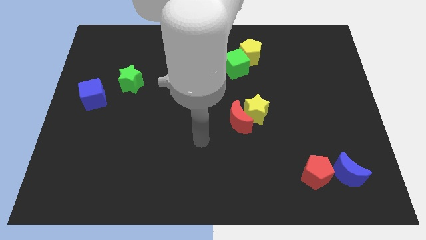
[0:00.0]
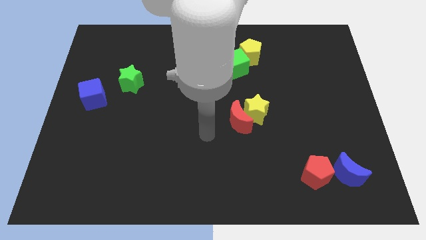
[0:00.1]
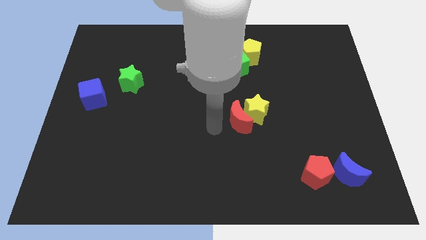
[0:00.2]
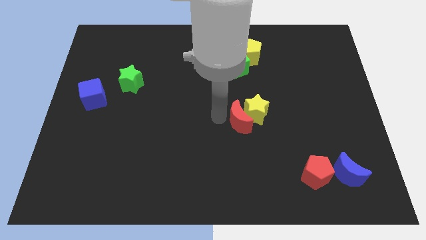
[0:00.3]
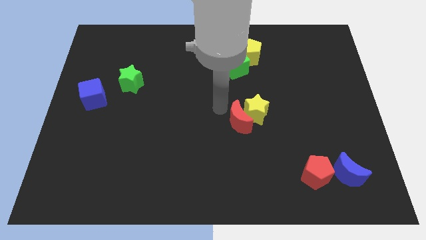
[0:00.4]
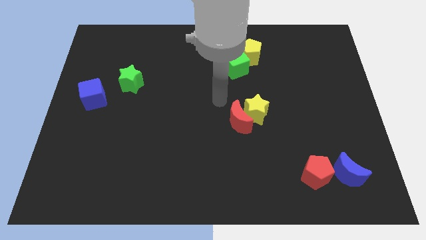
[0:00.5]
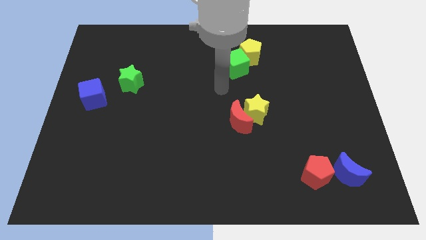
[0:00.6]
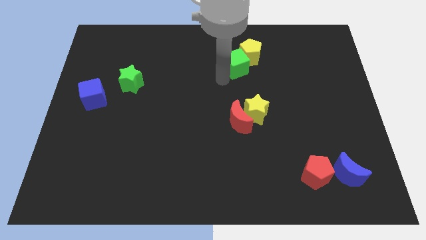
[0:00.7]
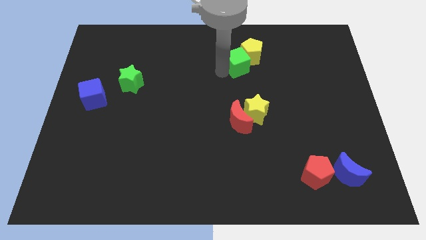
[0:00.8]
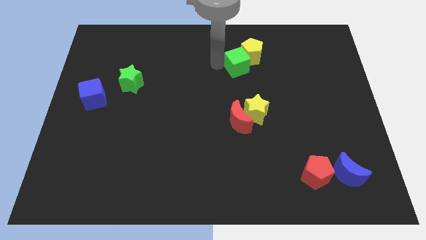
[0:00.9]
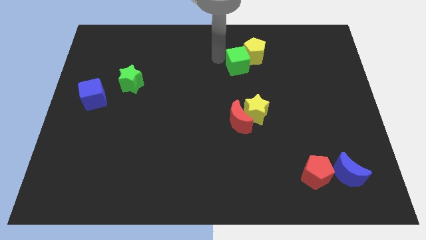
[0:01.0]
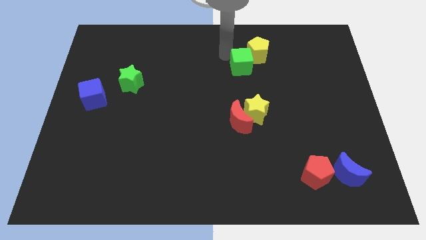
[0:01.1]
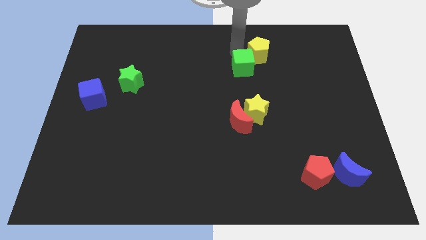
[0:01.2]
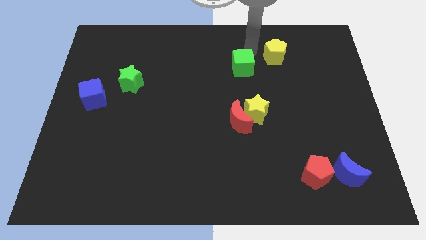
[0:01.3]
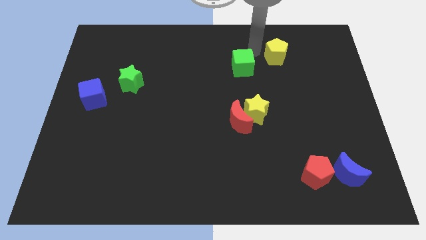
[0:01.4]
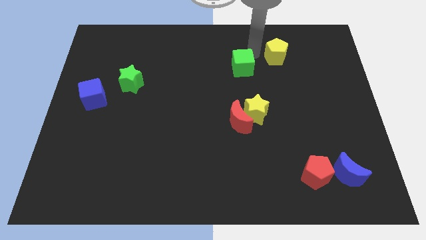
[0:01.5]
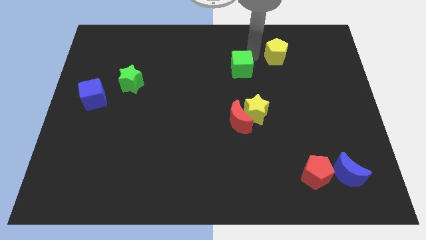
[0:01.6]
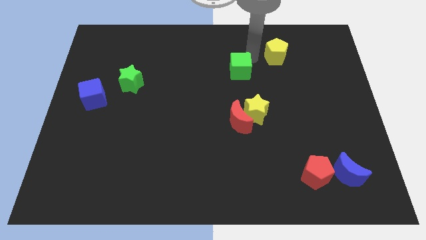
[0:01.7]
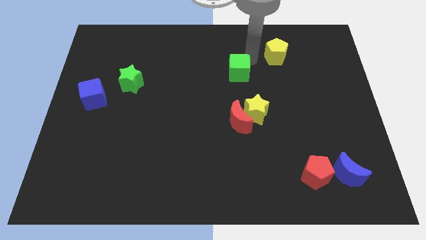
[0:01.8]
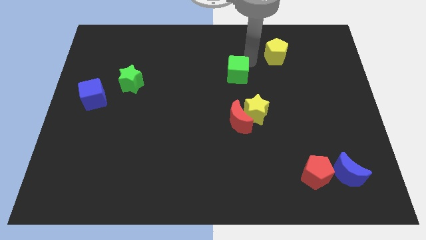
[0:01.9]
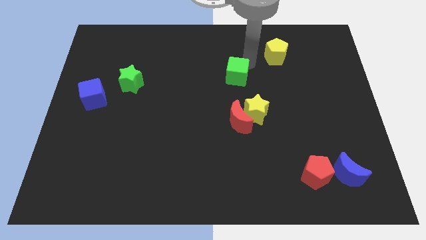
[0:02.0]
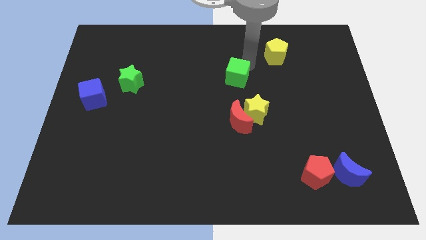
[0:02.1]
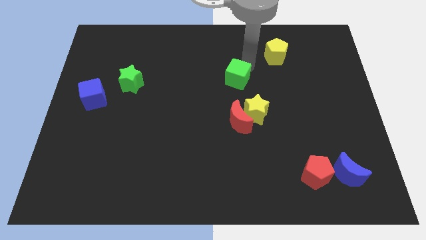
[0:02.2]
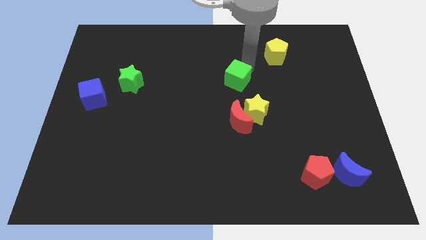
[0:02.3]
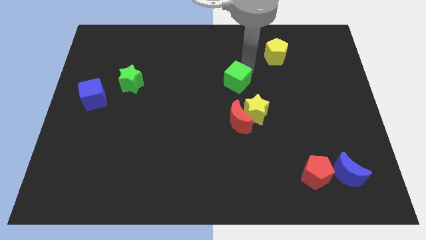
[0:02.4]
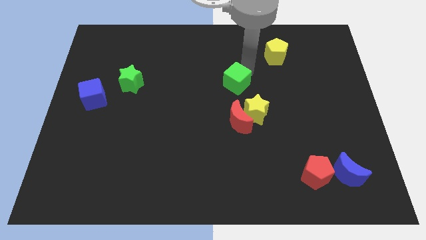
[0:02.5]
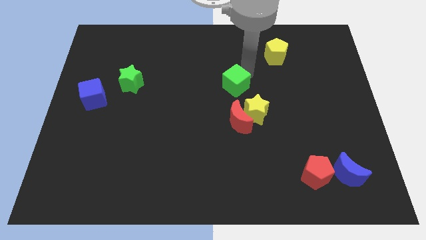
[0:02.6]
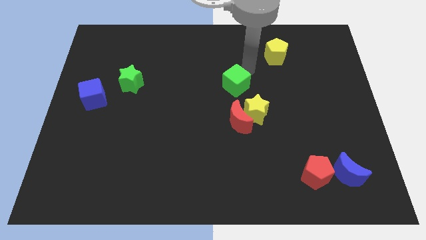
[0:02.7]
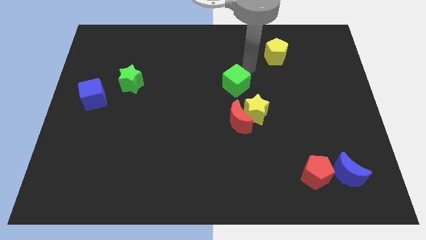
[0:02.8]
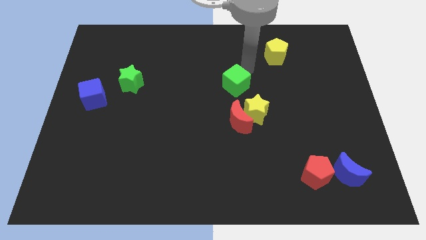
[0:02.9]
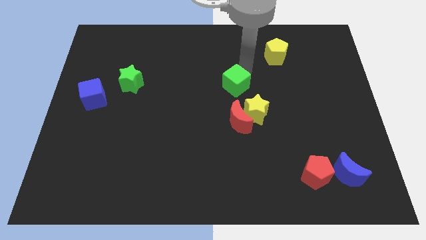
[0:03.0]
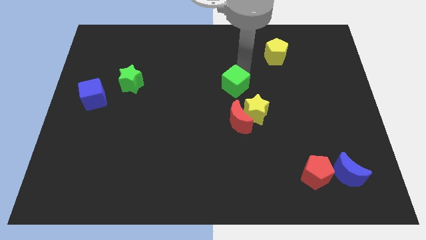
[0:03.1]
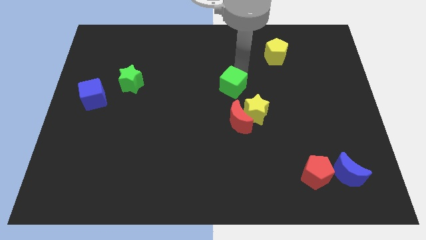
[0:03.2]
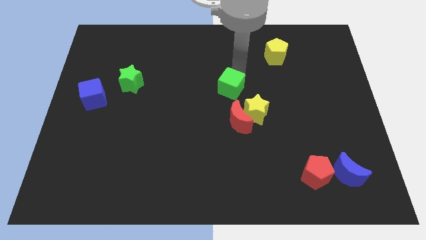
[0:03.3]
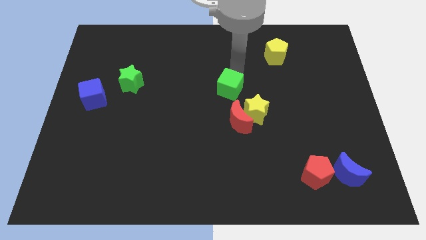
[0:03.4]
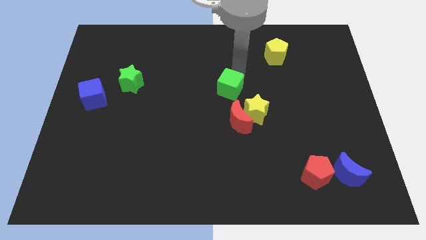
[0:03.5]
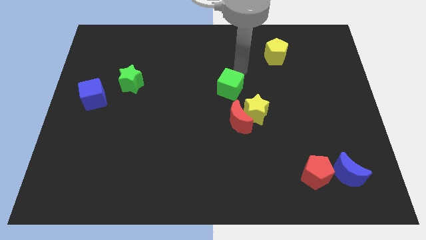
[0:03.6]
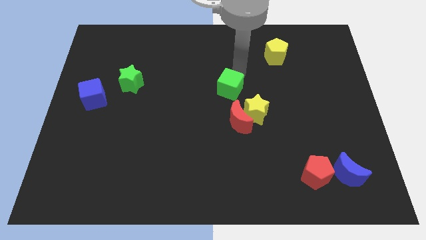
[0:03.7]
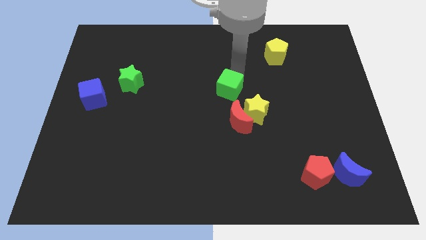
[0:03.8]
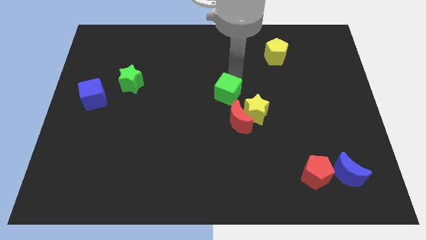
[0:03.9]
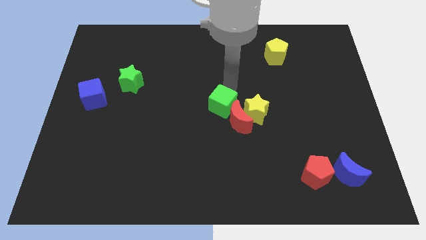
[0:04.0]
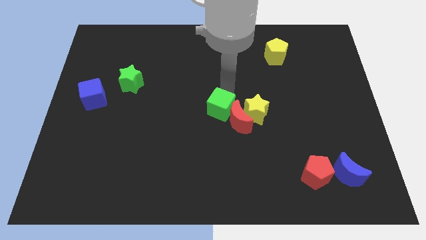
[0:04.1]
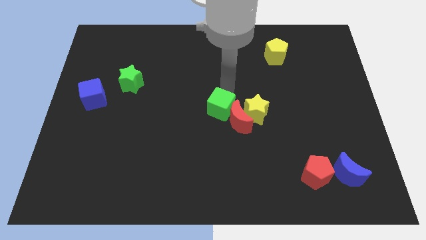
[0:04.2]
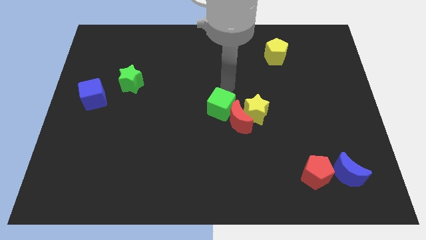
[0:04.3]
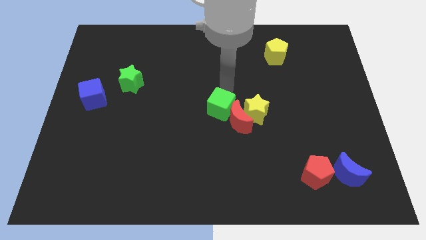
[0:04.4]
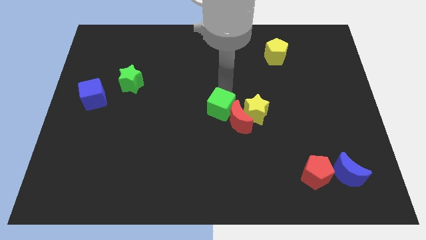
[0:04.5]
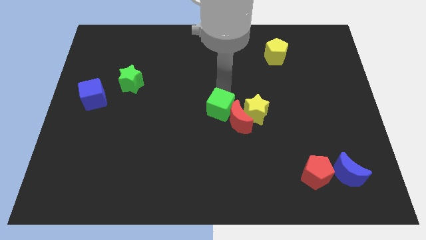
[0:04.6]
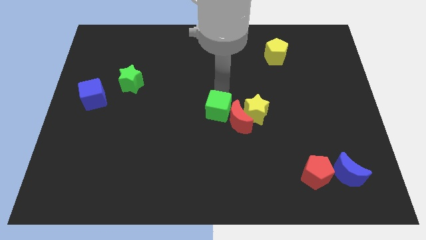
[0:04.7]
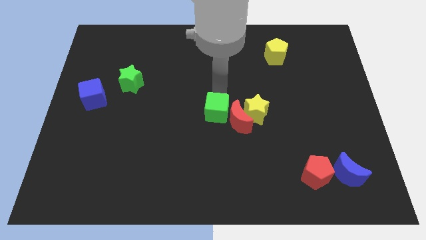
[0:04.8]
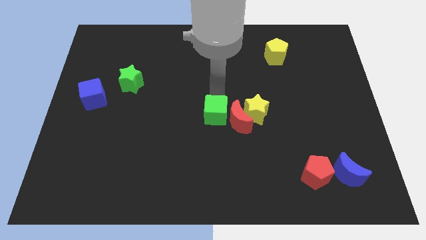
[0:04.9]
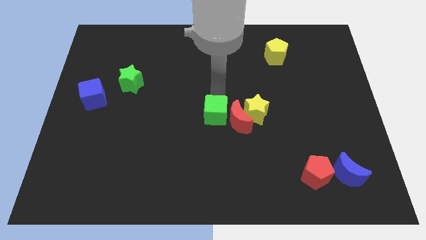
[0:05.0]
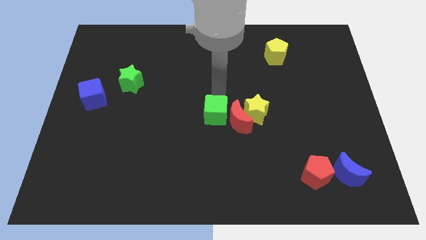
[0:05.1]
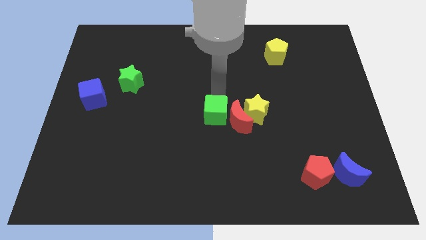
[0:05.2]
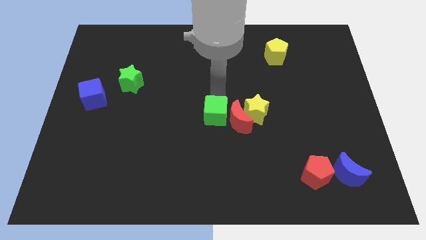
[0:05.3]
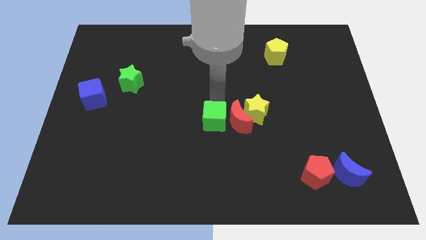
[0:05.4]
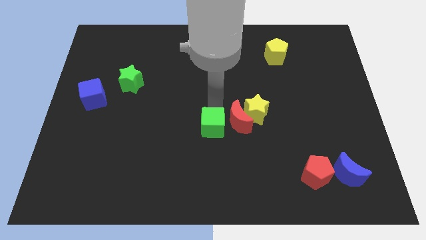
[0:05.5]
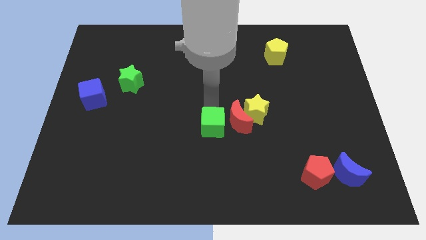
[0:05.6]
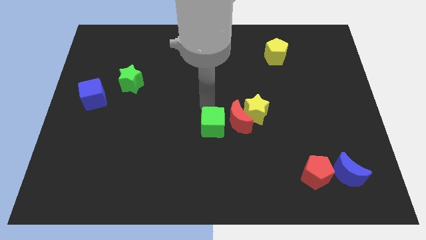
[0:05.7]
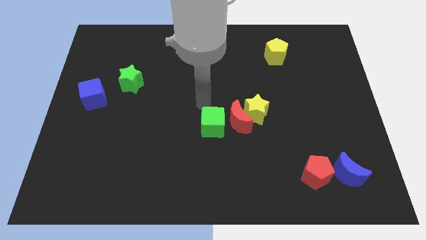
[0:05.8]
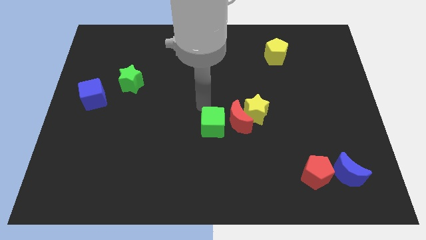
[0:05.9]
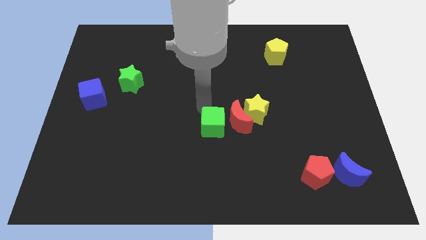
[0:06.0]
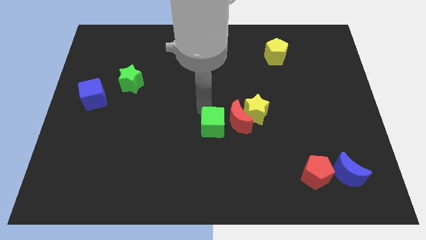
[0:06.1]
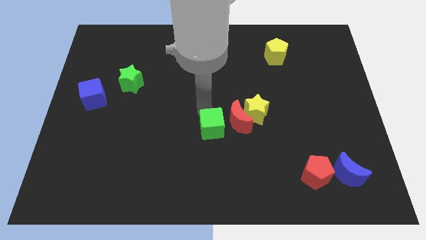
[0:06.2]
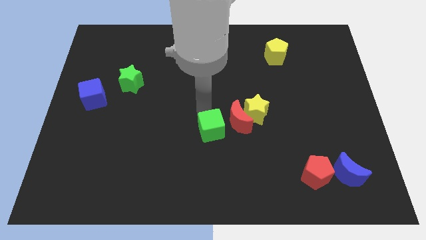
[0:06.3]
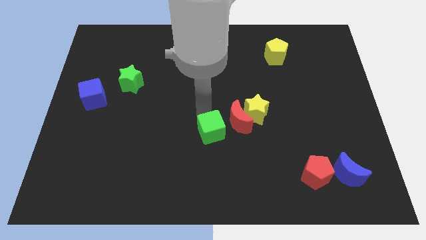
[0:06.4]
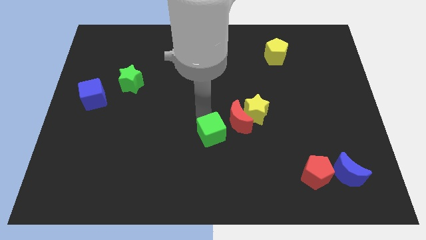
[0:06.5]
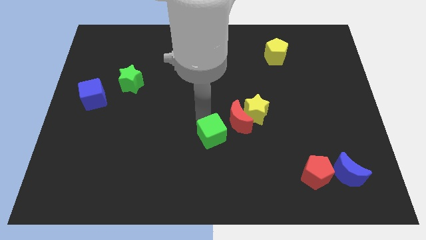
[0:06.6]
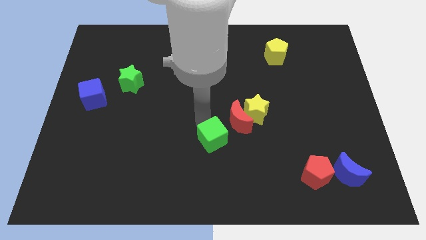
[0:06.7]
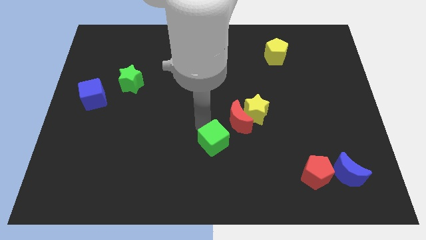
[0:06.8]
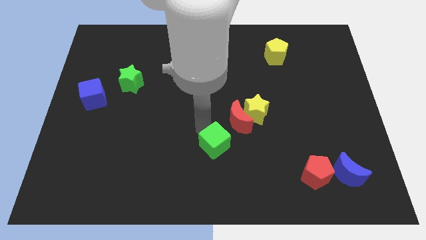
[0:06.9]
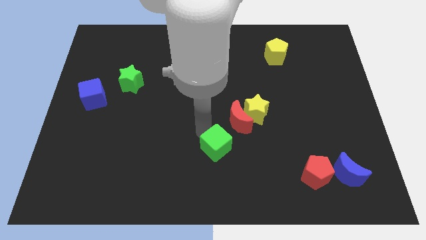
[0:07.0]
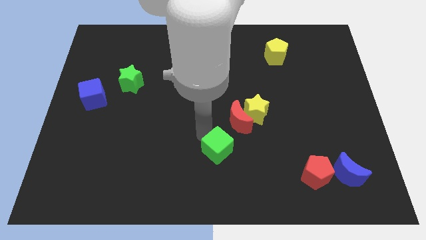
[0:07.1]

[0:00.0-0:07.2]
push the green cube below the red moon
